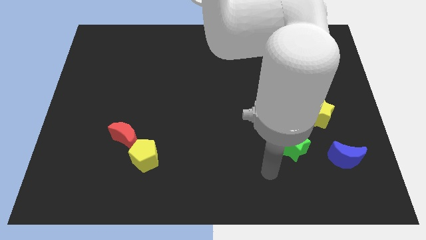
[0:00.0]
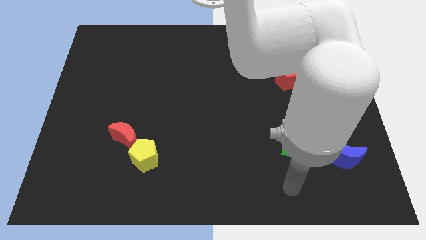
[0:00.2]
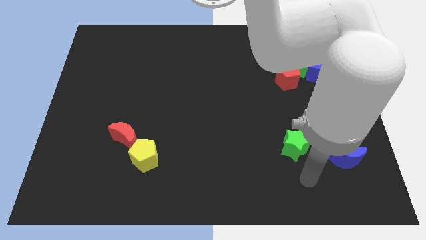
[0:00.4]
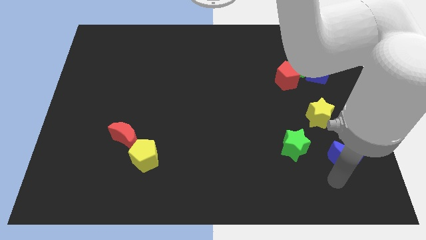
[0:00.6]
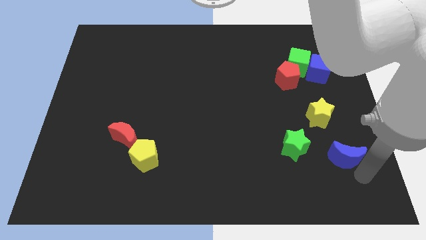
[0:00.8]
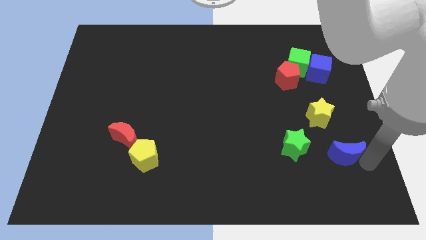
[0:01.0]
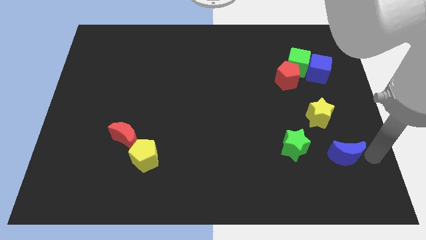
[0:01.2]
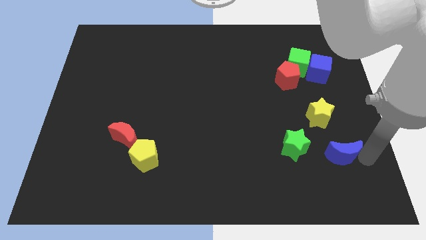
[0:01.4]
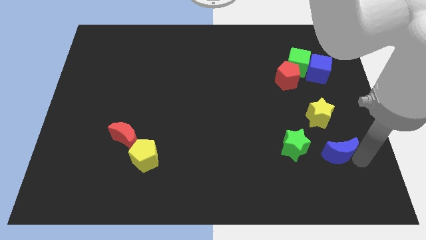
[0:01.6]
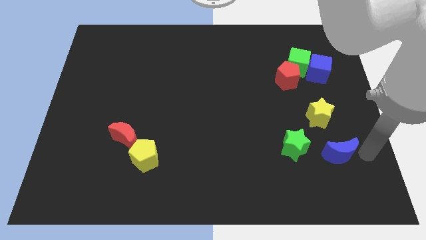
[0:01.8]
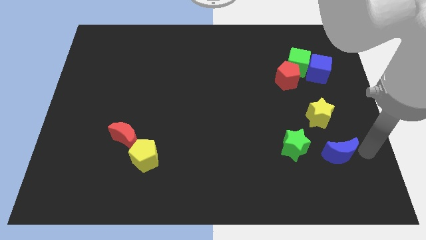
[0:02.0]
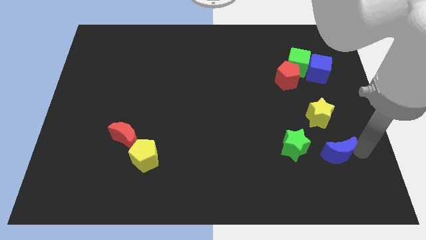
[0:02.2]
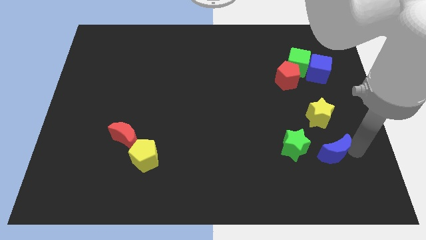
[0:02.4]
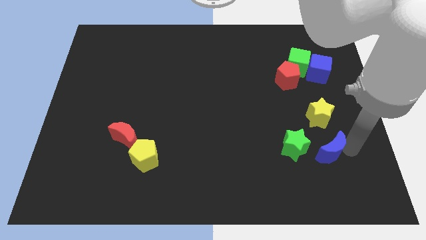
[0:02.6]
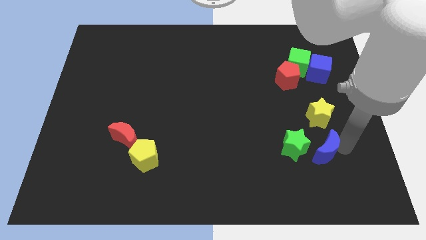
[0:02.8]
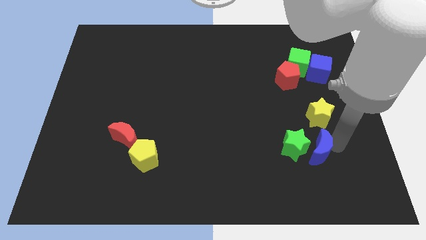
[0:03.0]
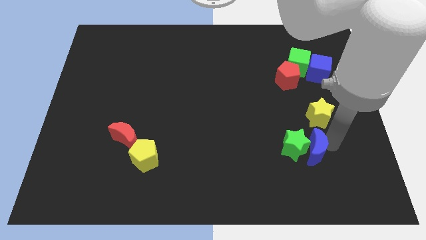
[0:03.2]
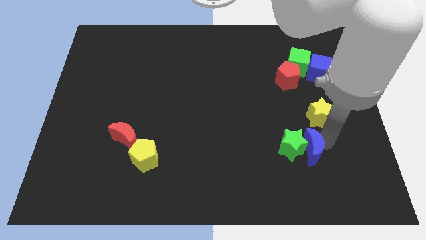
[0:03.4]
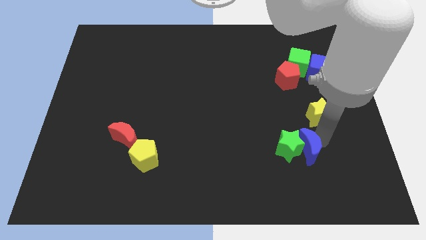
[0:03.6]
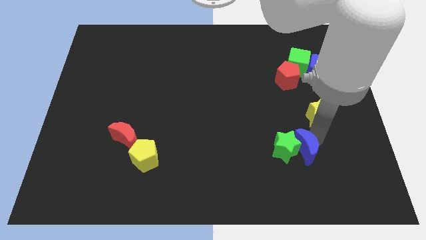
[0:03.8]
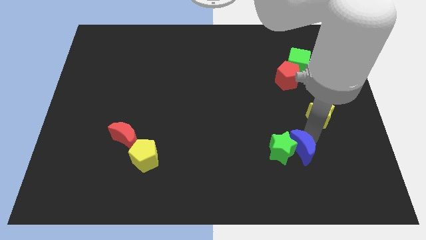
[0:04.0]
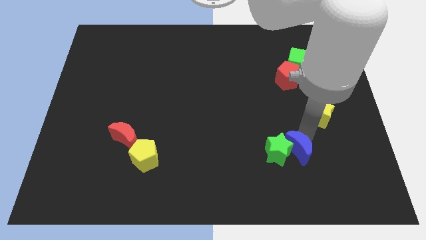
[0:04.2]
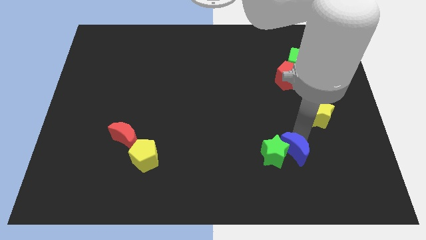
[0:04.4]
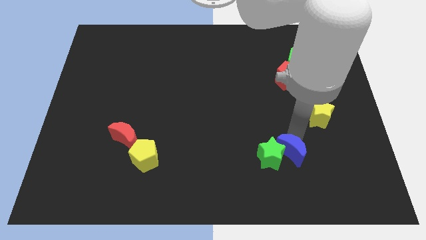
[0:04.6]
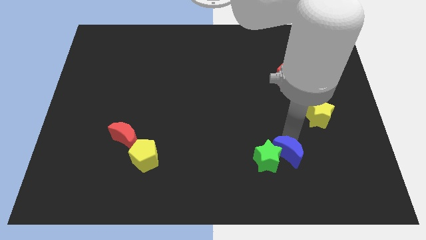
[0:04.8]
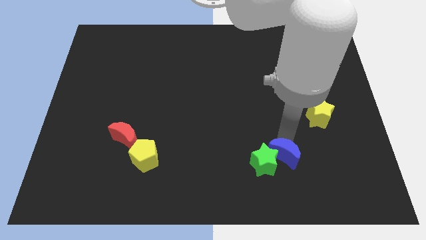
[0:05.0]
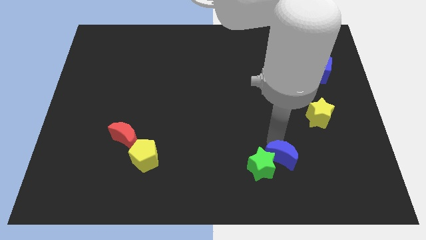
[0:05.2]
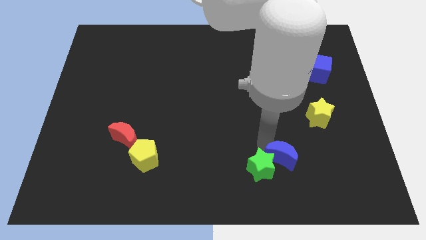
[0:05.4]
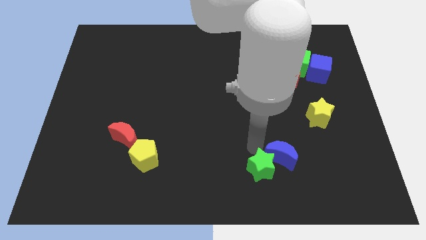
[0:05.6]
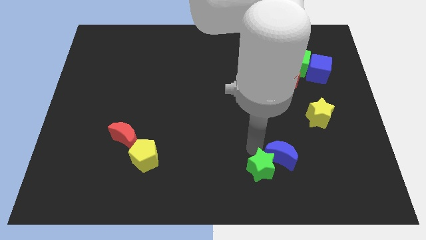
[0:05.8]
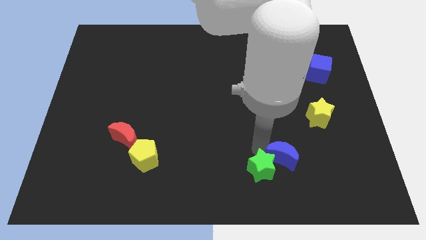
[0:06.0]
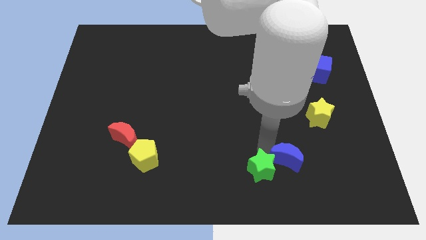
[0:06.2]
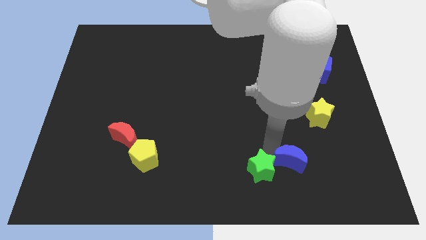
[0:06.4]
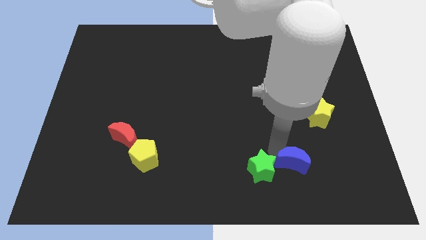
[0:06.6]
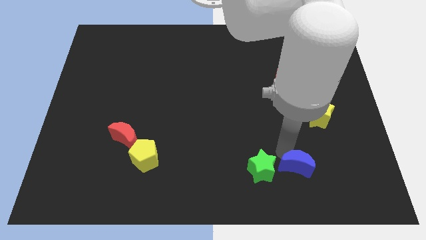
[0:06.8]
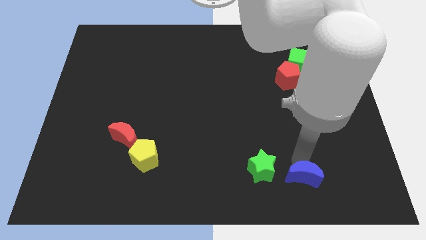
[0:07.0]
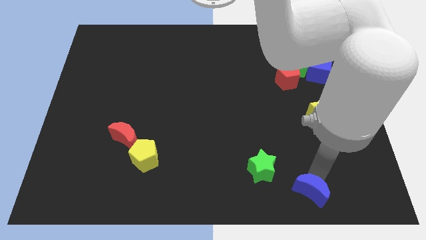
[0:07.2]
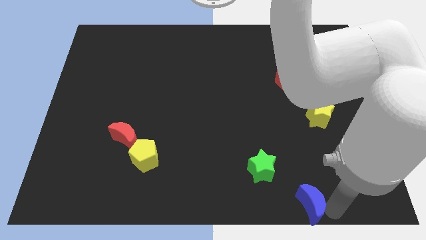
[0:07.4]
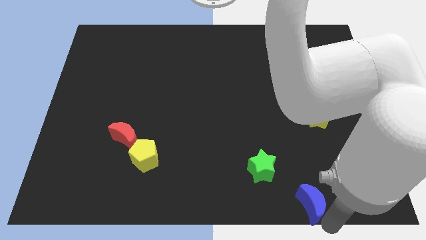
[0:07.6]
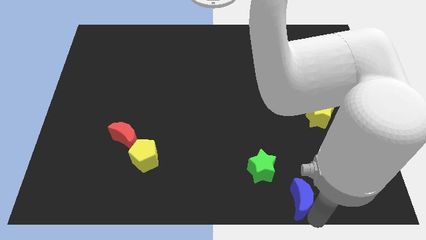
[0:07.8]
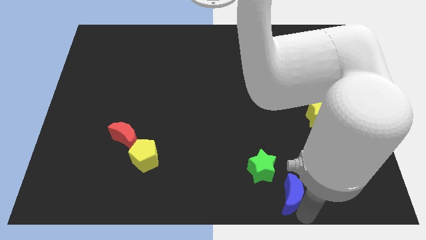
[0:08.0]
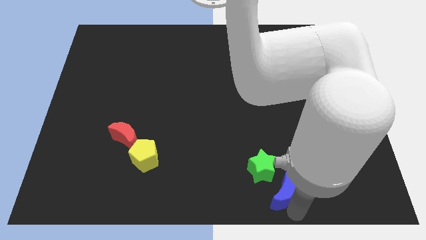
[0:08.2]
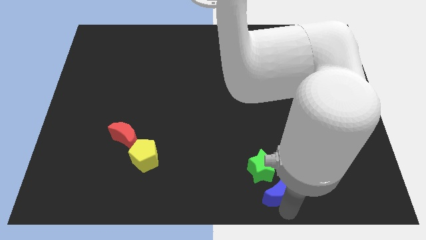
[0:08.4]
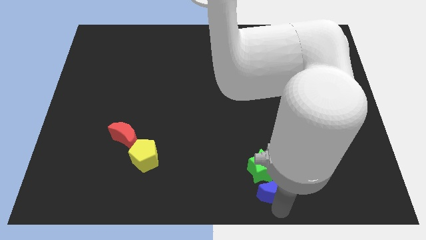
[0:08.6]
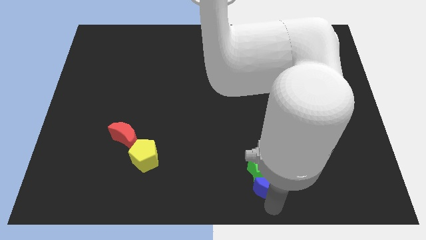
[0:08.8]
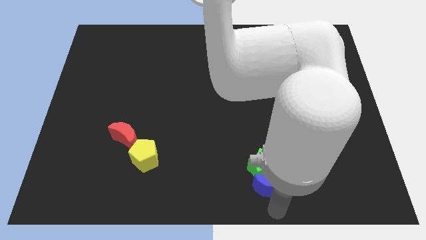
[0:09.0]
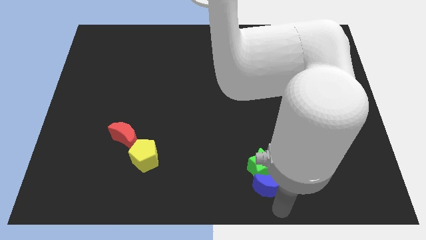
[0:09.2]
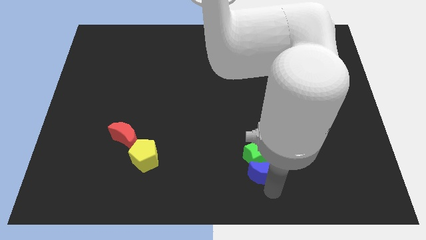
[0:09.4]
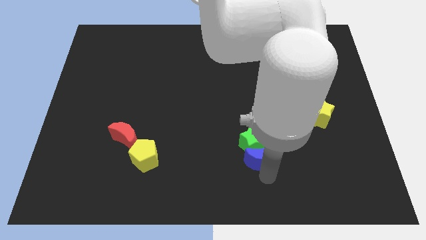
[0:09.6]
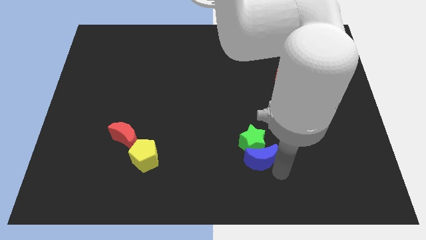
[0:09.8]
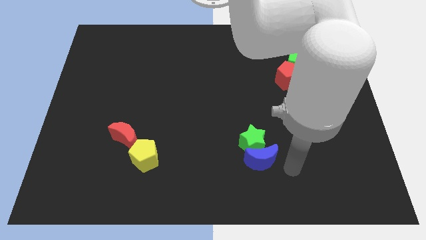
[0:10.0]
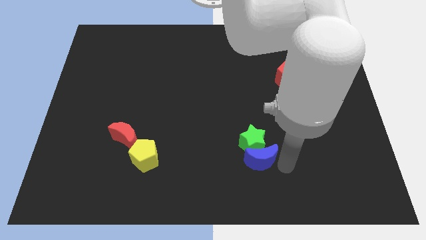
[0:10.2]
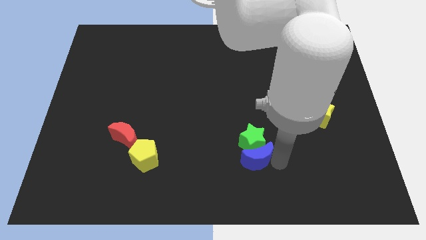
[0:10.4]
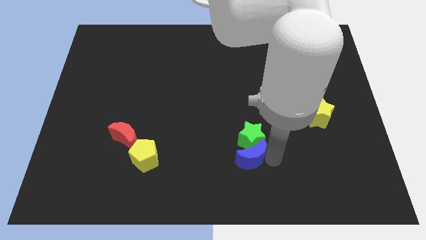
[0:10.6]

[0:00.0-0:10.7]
move the blue moon left

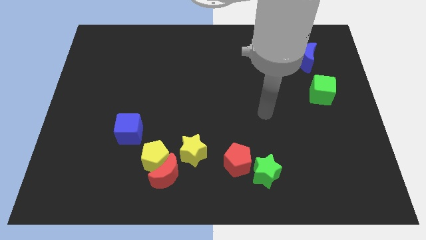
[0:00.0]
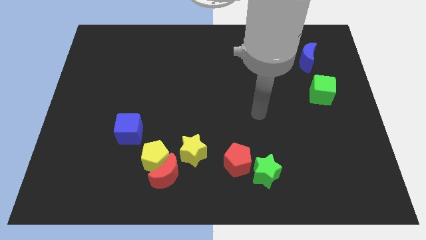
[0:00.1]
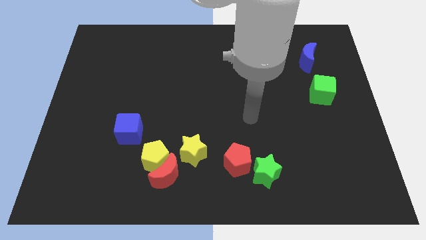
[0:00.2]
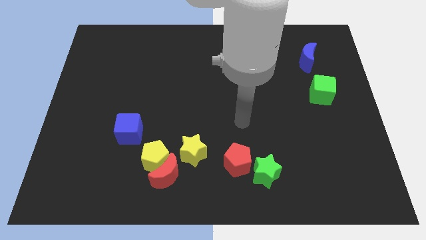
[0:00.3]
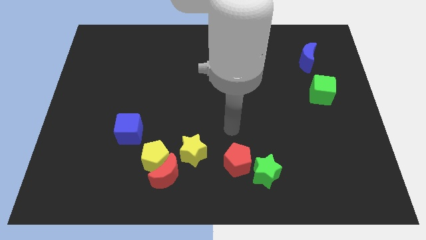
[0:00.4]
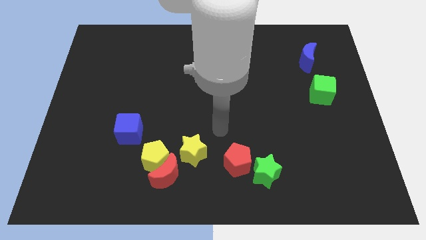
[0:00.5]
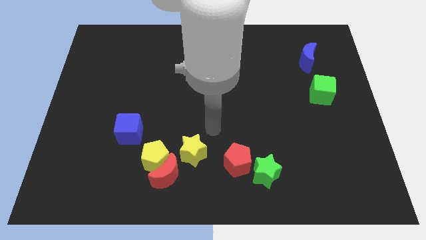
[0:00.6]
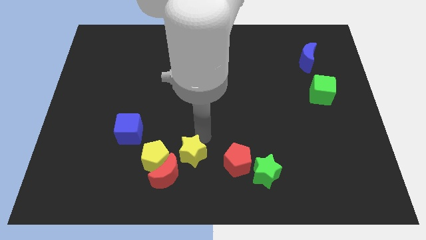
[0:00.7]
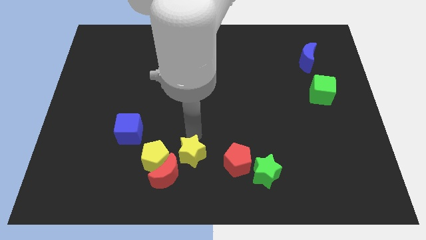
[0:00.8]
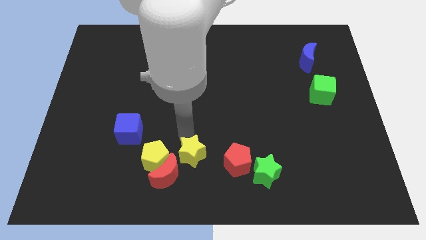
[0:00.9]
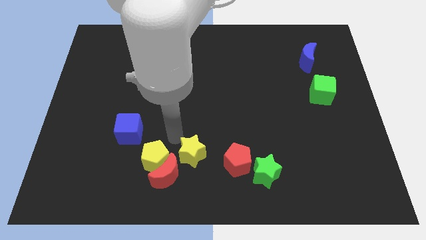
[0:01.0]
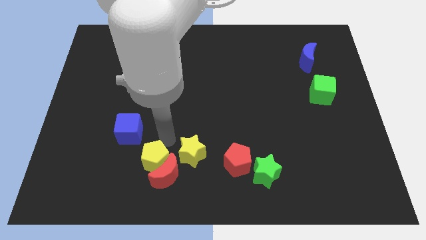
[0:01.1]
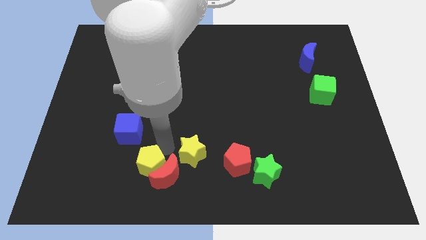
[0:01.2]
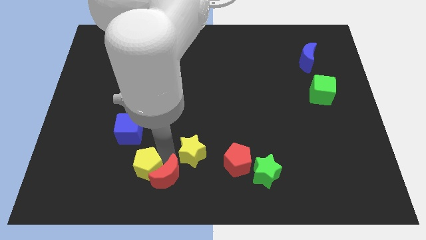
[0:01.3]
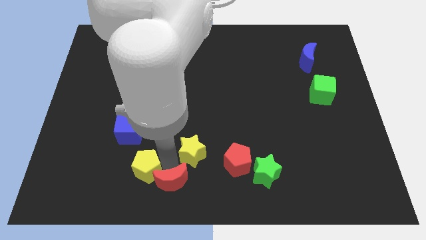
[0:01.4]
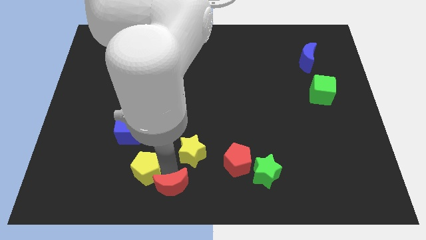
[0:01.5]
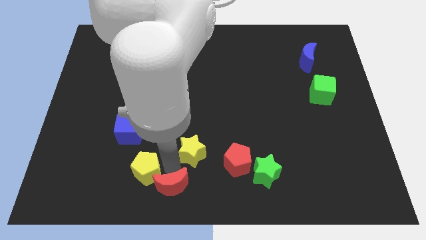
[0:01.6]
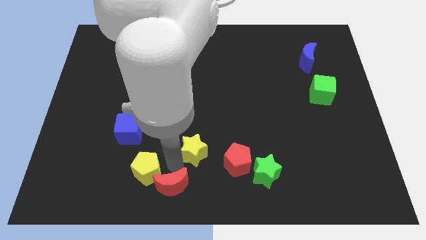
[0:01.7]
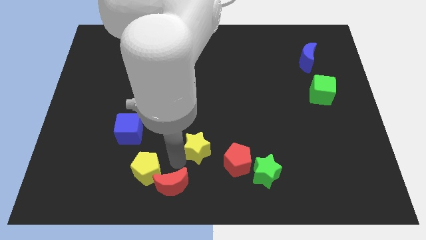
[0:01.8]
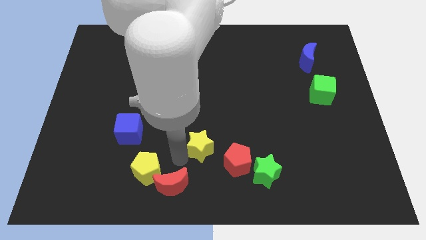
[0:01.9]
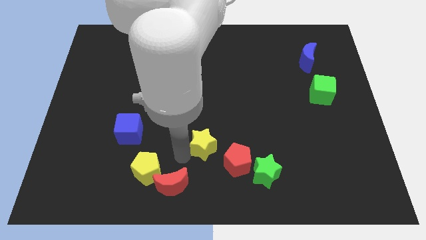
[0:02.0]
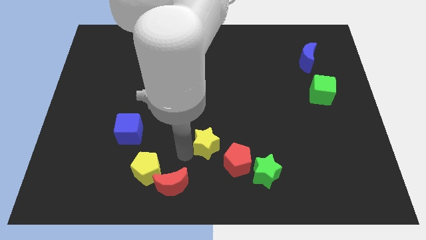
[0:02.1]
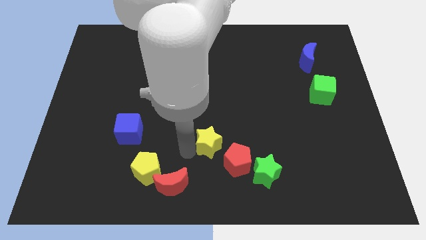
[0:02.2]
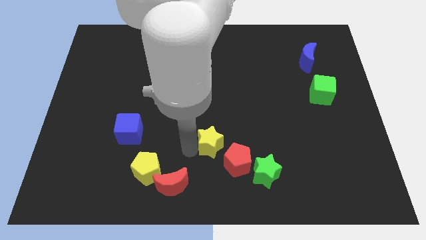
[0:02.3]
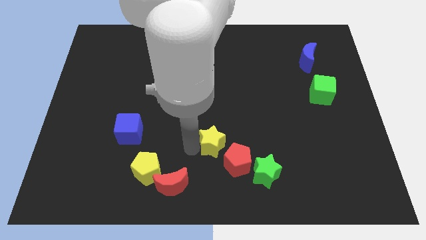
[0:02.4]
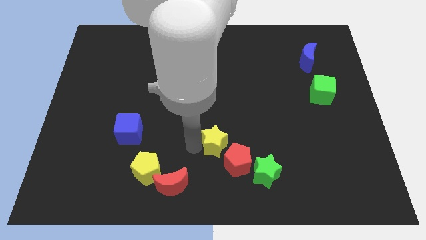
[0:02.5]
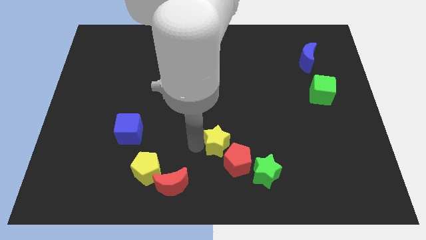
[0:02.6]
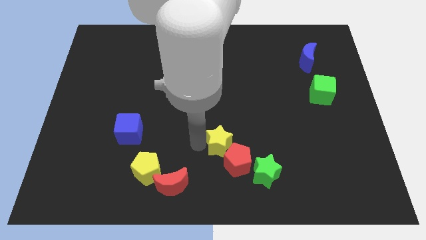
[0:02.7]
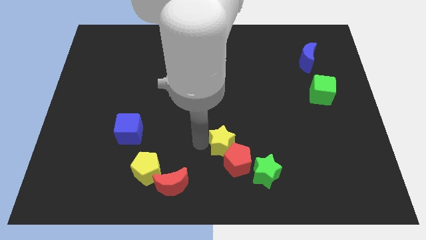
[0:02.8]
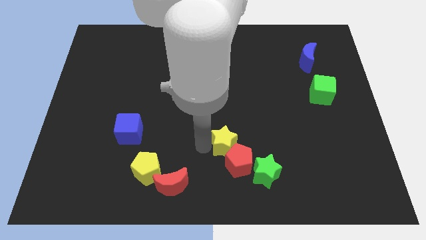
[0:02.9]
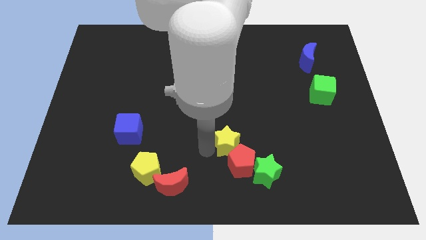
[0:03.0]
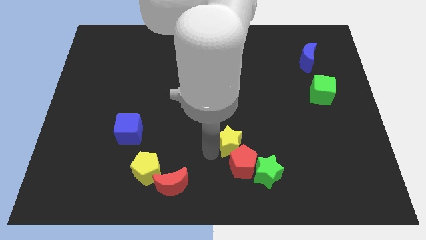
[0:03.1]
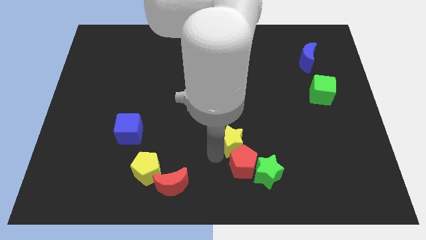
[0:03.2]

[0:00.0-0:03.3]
slightly push the yellow star diagonally upwards and right
